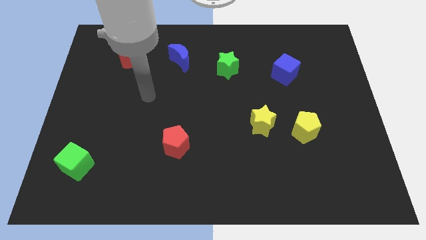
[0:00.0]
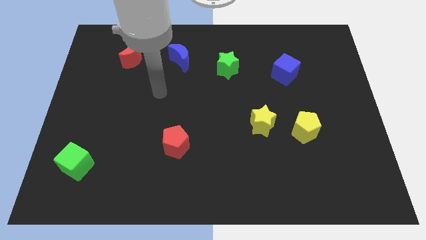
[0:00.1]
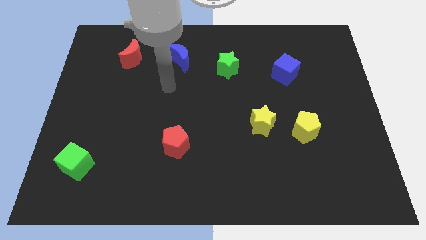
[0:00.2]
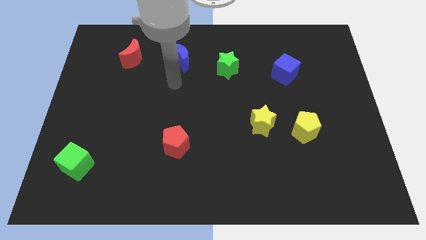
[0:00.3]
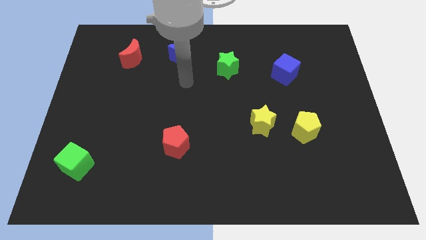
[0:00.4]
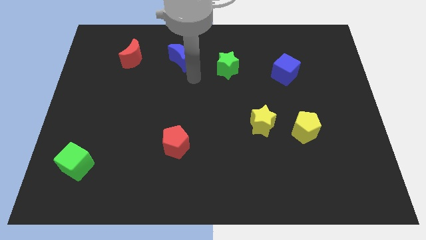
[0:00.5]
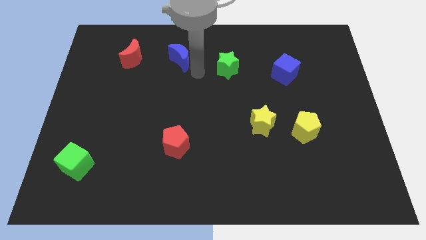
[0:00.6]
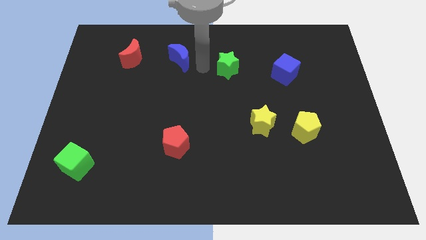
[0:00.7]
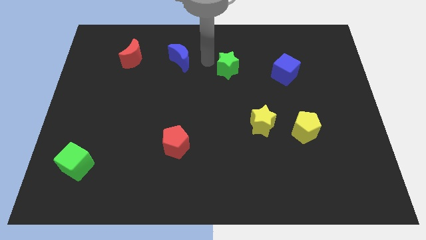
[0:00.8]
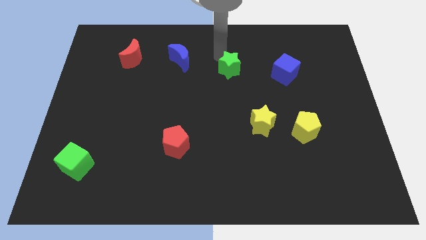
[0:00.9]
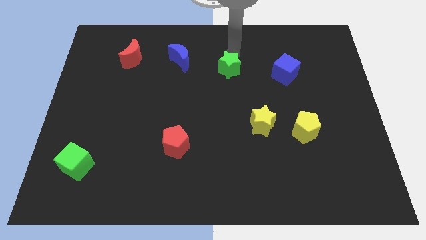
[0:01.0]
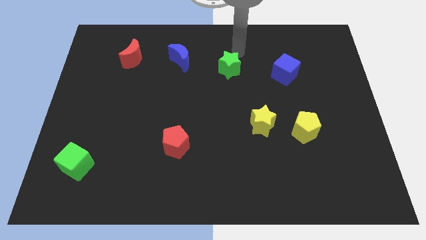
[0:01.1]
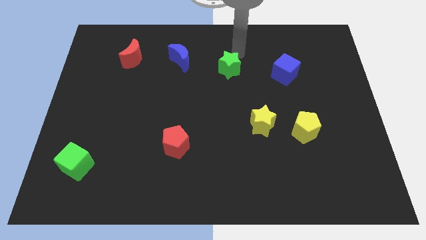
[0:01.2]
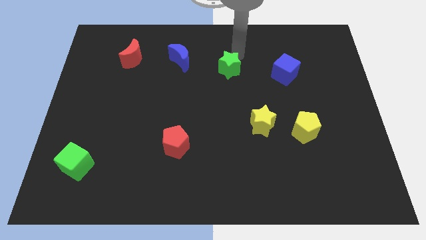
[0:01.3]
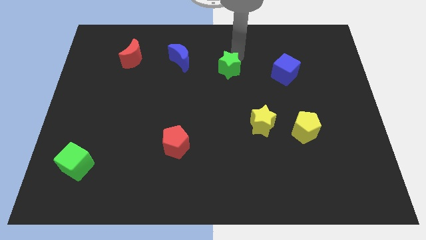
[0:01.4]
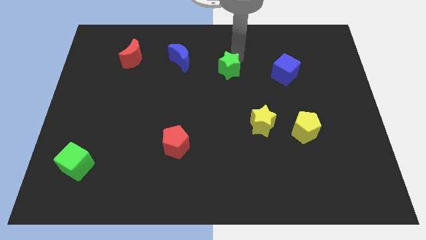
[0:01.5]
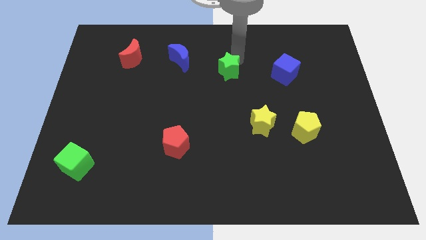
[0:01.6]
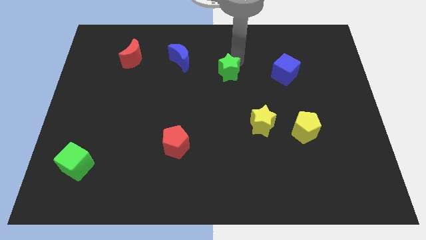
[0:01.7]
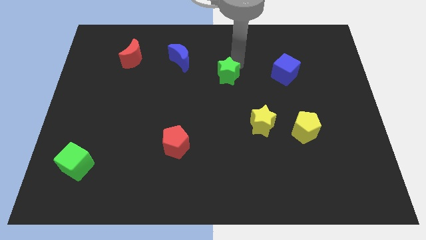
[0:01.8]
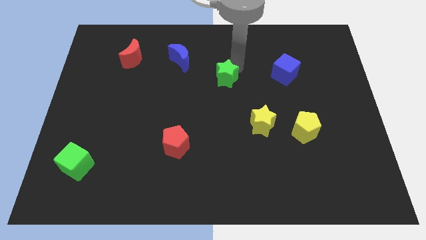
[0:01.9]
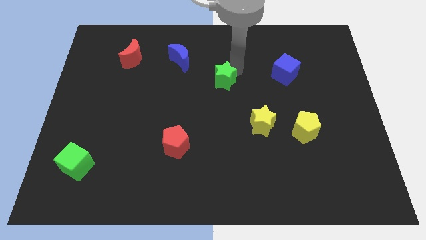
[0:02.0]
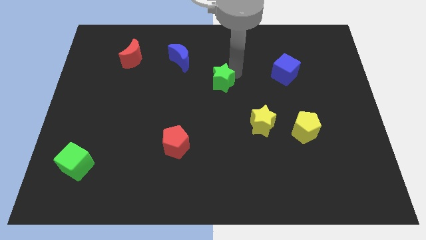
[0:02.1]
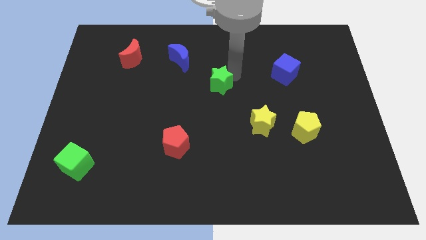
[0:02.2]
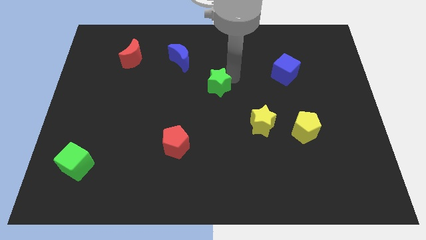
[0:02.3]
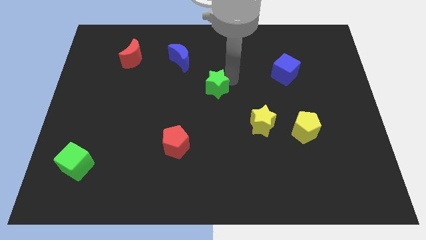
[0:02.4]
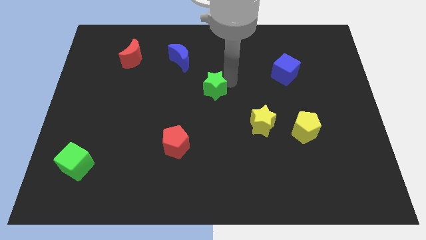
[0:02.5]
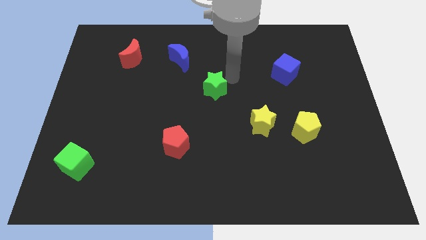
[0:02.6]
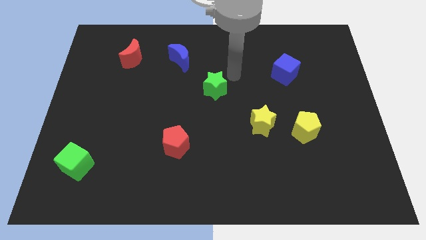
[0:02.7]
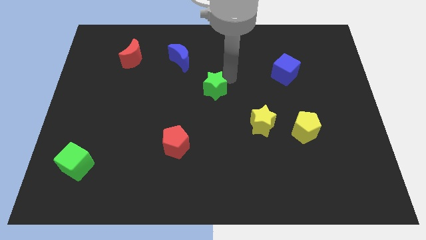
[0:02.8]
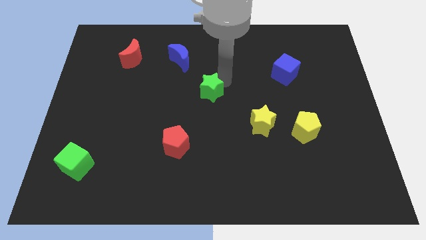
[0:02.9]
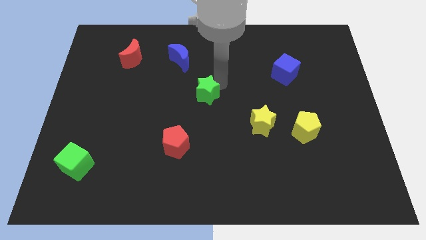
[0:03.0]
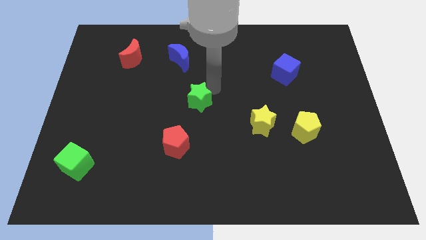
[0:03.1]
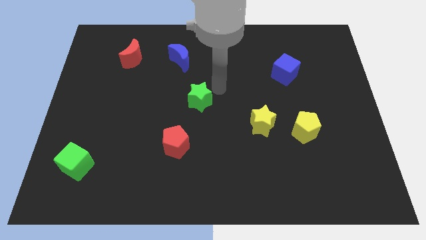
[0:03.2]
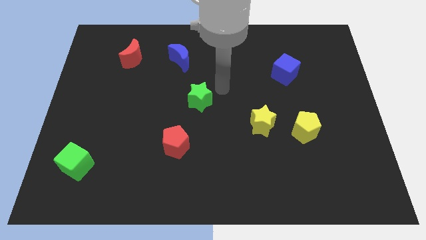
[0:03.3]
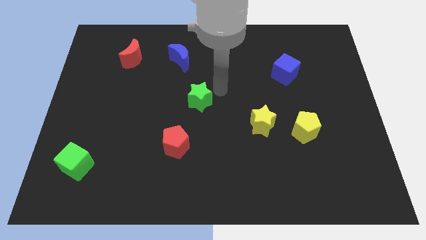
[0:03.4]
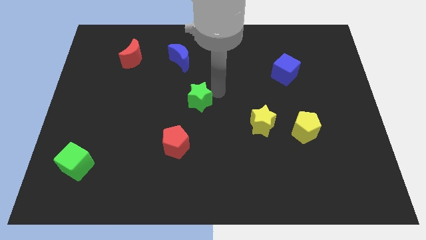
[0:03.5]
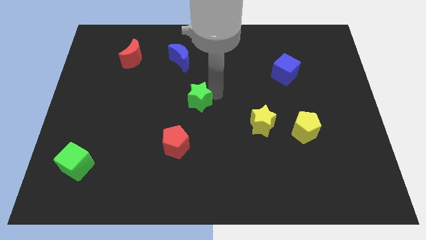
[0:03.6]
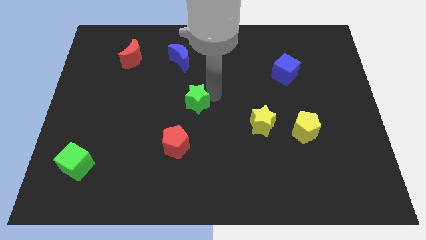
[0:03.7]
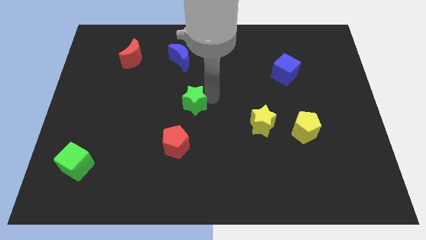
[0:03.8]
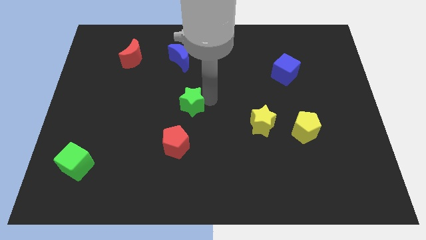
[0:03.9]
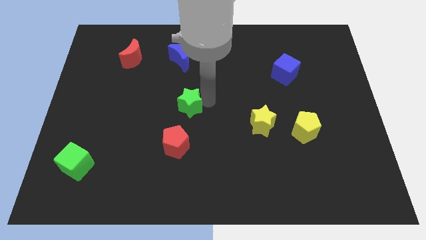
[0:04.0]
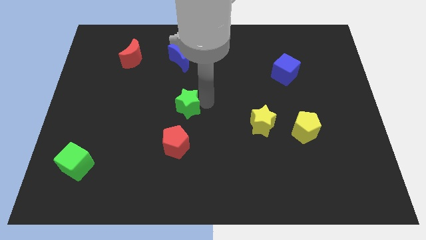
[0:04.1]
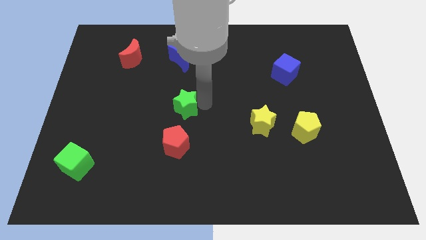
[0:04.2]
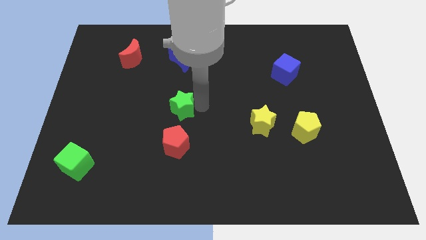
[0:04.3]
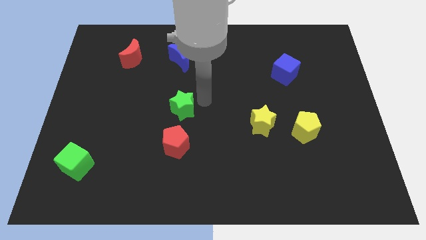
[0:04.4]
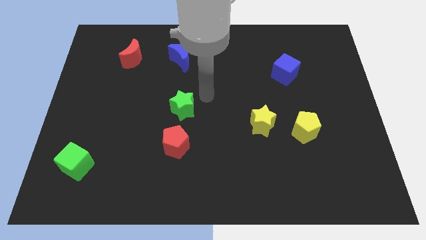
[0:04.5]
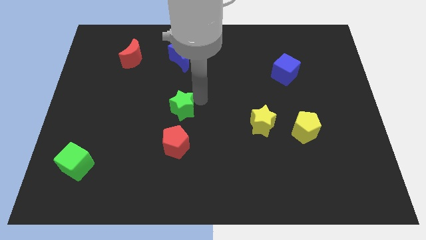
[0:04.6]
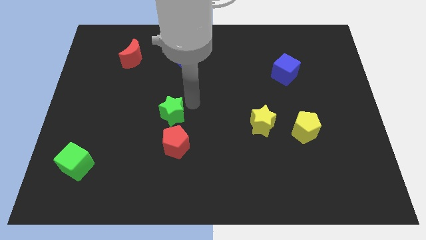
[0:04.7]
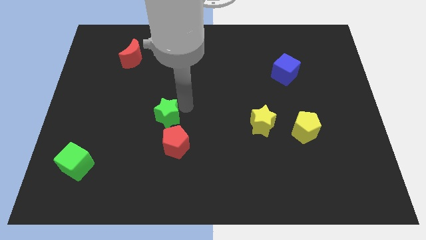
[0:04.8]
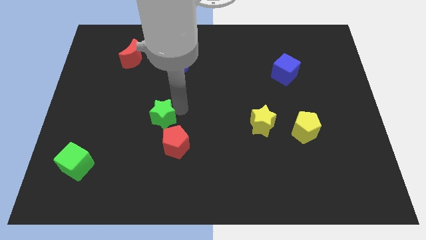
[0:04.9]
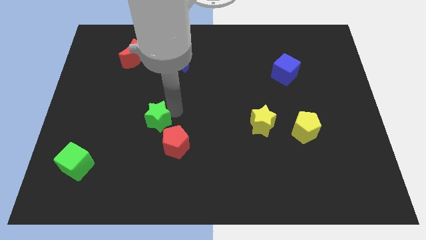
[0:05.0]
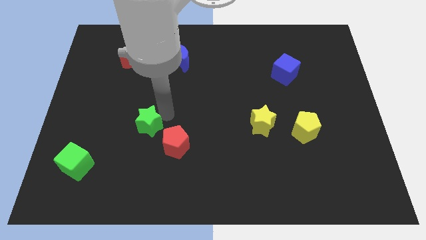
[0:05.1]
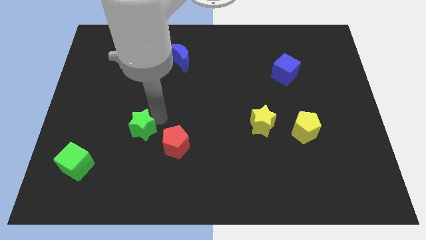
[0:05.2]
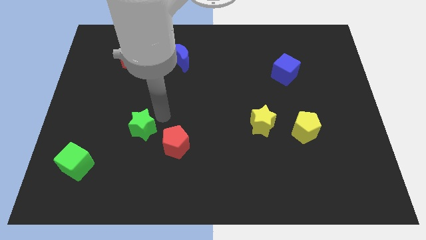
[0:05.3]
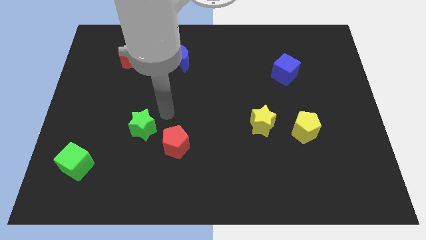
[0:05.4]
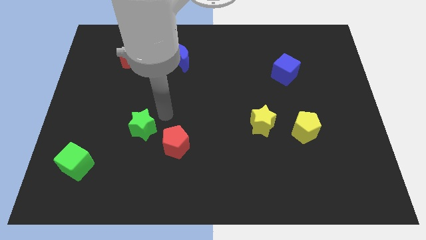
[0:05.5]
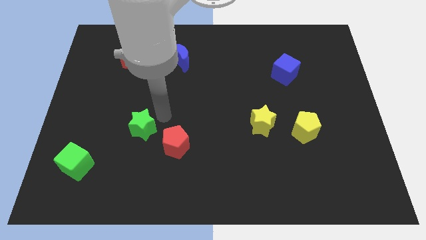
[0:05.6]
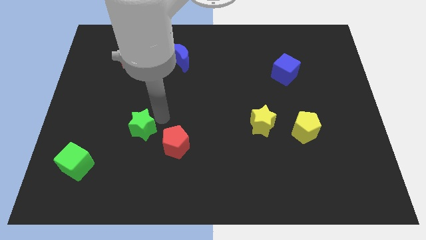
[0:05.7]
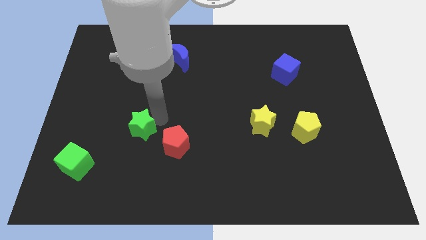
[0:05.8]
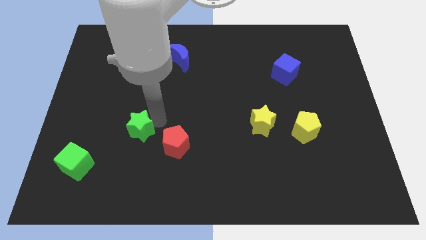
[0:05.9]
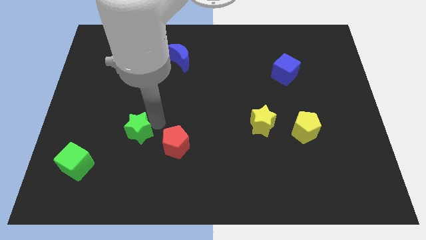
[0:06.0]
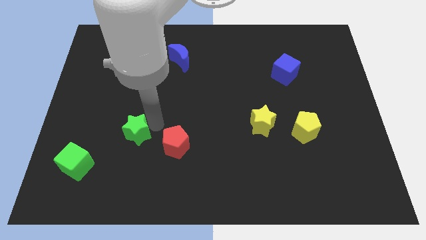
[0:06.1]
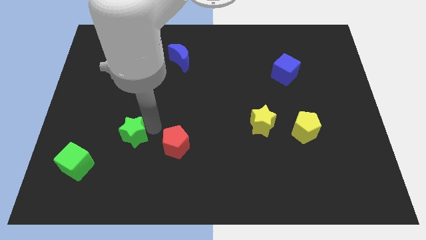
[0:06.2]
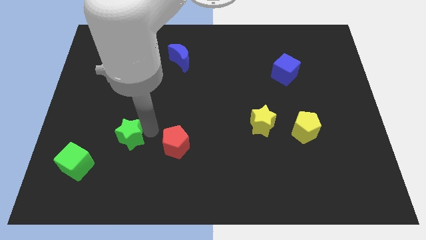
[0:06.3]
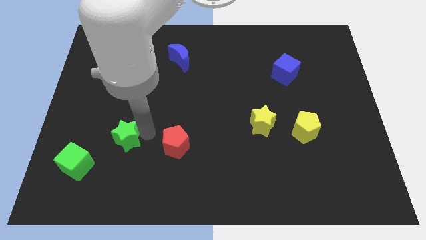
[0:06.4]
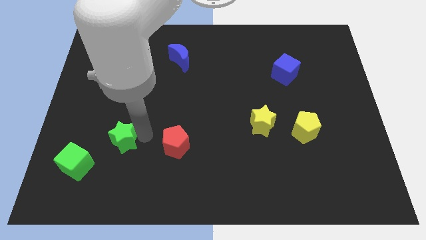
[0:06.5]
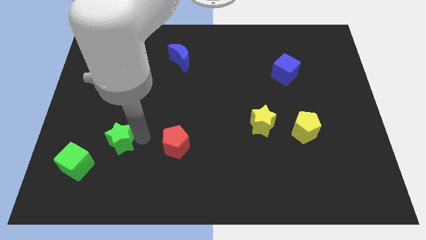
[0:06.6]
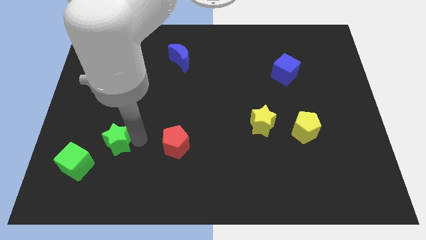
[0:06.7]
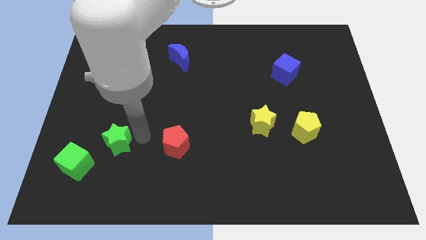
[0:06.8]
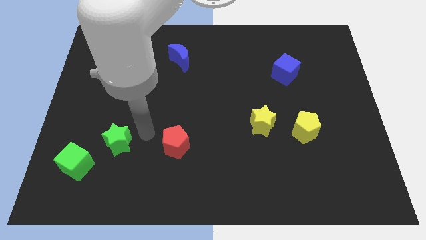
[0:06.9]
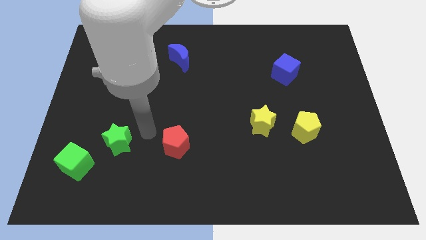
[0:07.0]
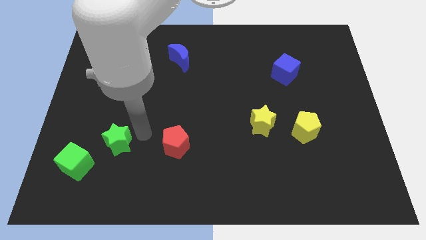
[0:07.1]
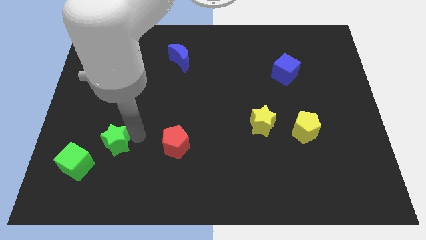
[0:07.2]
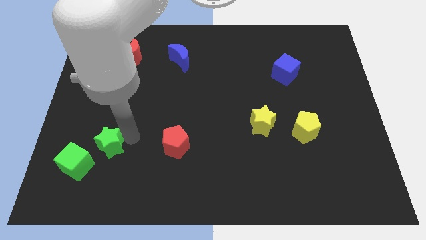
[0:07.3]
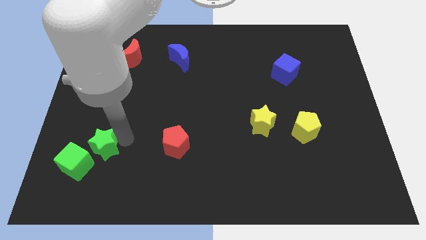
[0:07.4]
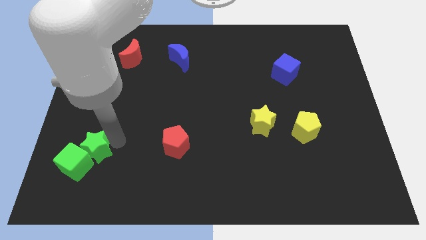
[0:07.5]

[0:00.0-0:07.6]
move the green star next to the green cube
